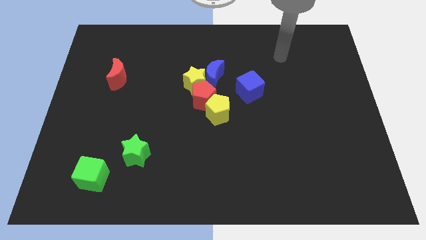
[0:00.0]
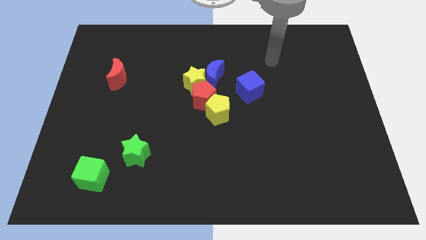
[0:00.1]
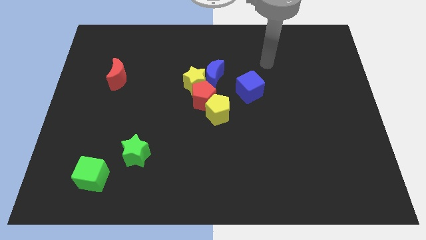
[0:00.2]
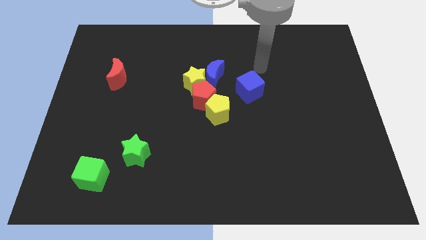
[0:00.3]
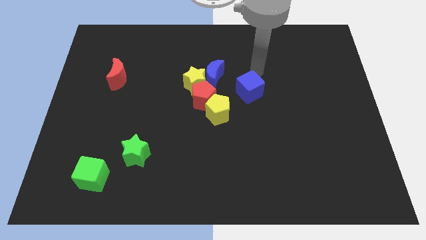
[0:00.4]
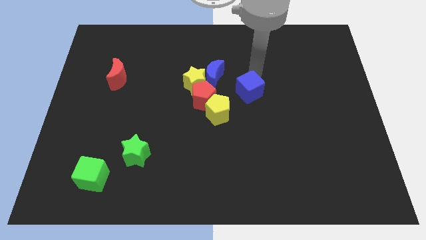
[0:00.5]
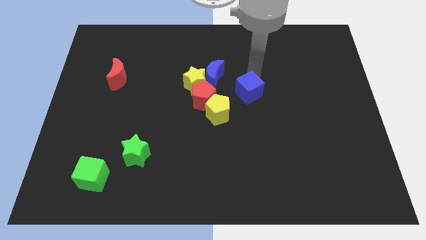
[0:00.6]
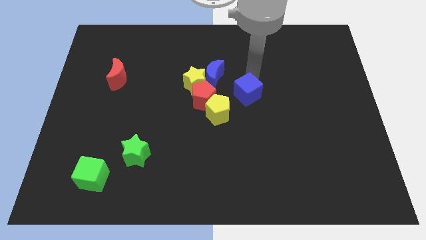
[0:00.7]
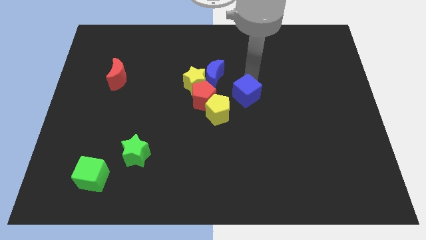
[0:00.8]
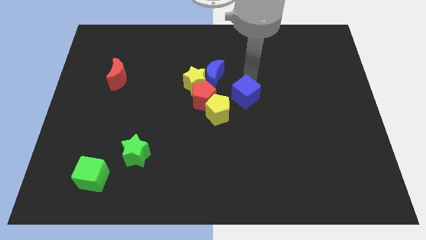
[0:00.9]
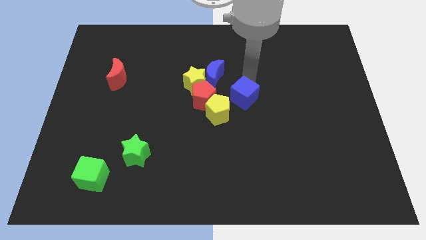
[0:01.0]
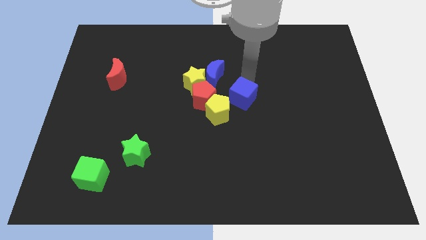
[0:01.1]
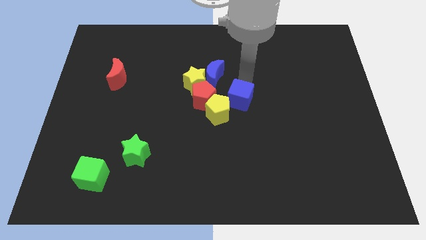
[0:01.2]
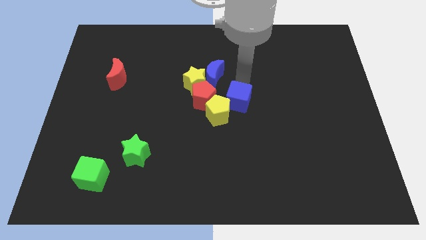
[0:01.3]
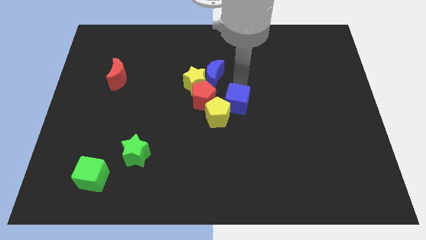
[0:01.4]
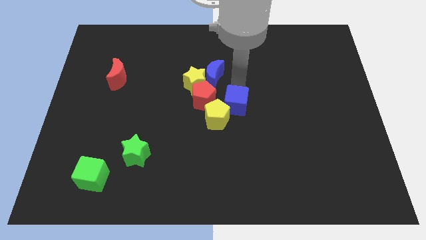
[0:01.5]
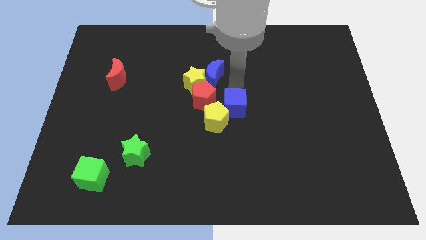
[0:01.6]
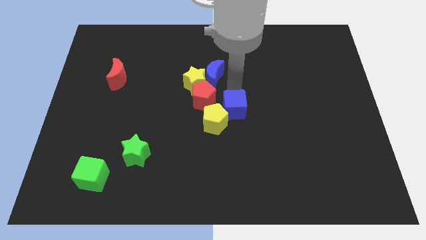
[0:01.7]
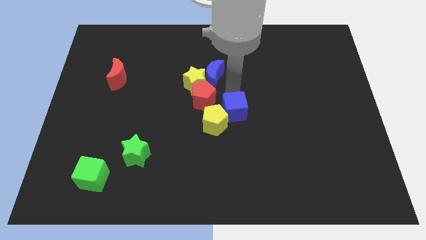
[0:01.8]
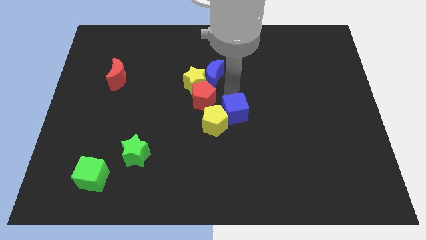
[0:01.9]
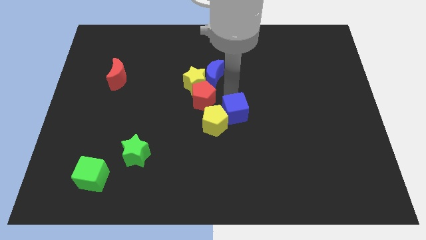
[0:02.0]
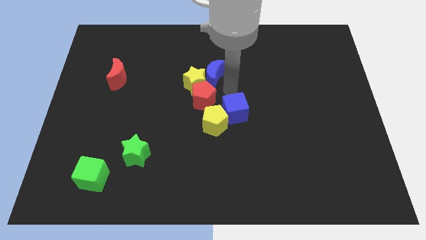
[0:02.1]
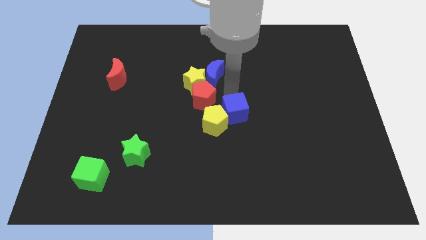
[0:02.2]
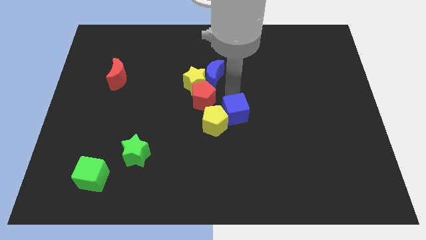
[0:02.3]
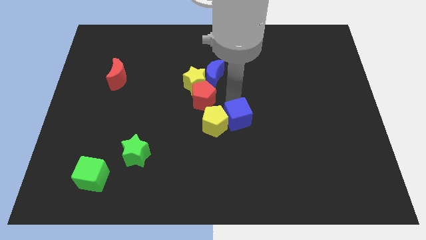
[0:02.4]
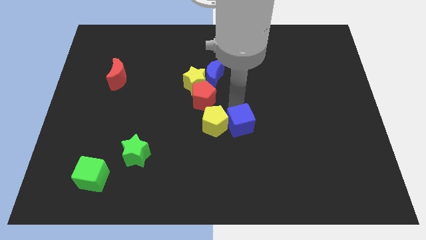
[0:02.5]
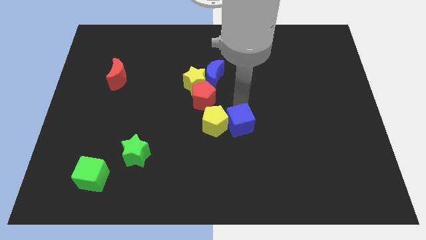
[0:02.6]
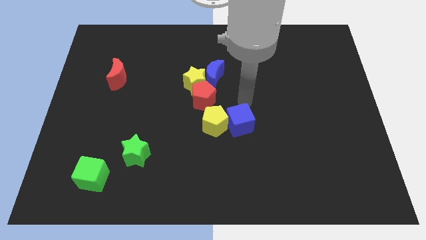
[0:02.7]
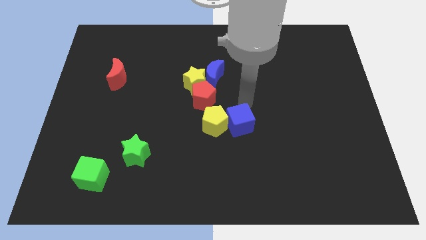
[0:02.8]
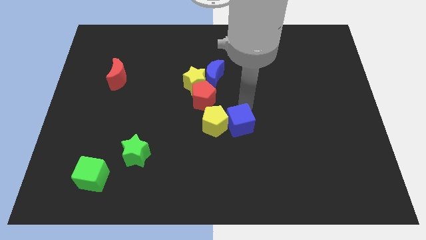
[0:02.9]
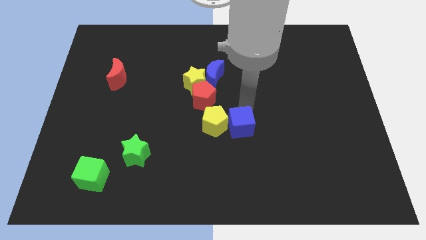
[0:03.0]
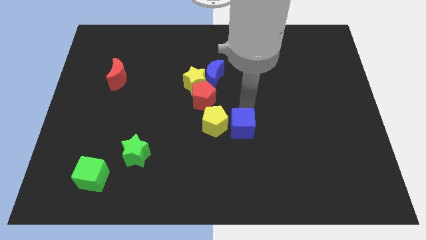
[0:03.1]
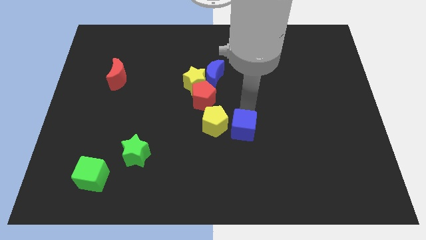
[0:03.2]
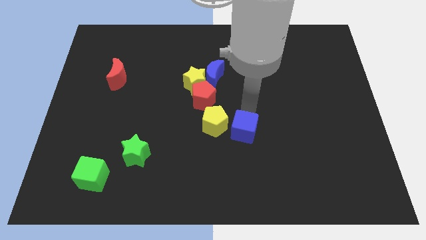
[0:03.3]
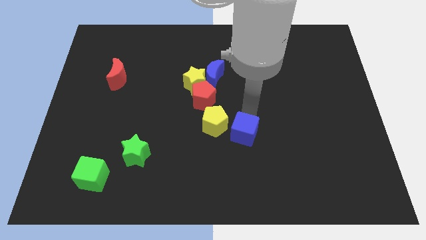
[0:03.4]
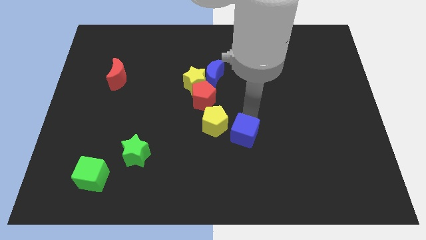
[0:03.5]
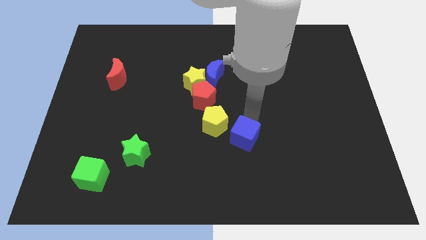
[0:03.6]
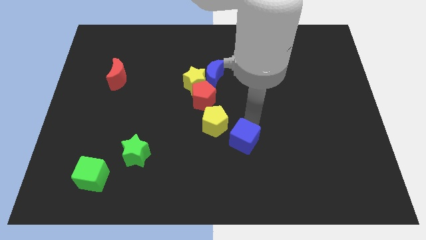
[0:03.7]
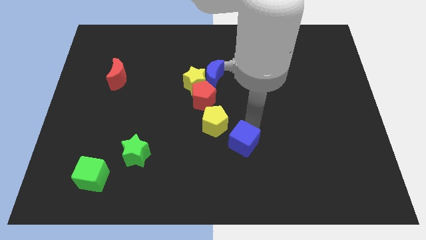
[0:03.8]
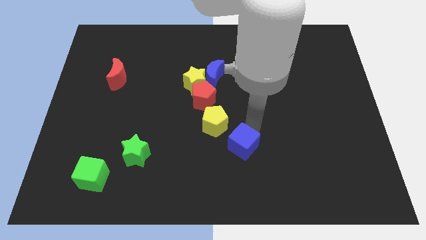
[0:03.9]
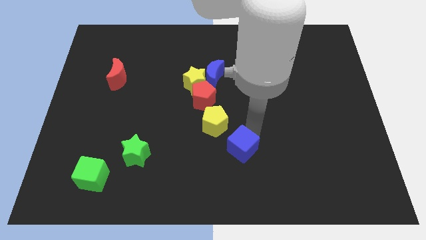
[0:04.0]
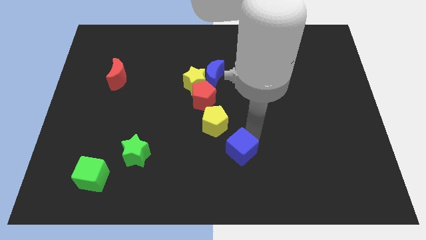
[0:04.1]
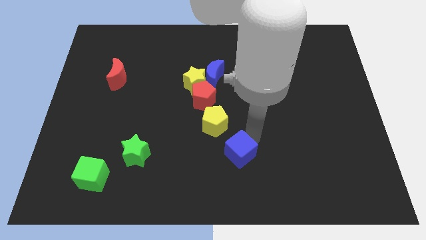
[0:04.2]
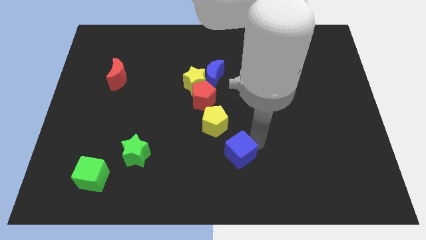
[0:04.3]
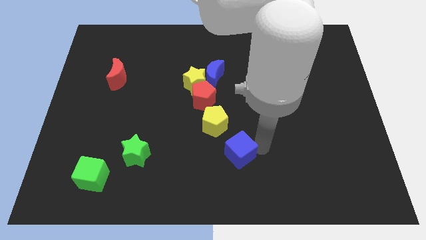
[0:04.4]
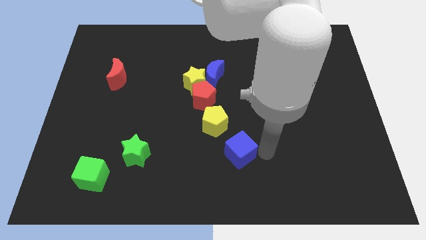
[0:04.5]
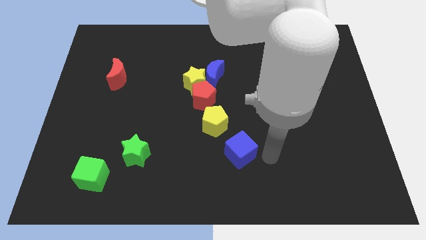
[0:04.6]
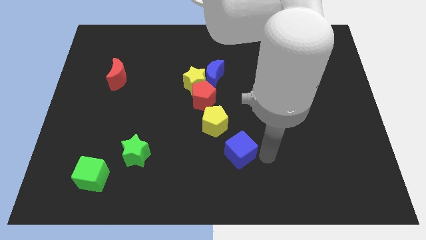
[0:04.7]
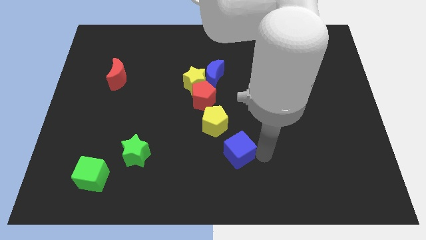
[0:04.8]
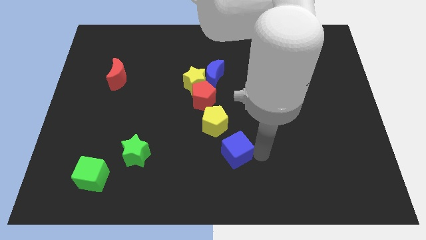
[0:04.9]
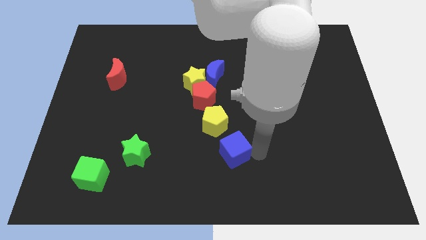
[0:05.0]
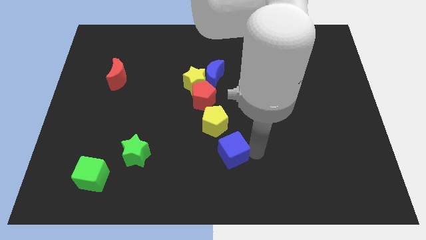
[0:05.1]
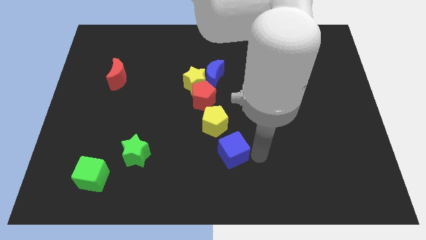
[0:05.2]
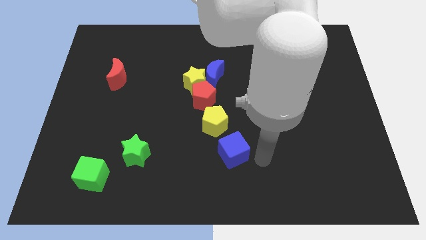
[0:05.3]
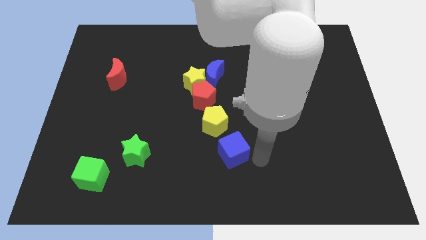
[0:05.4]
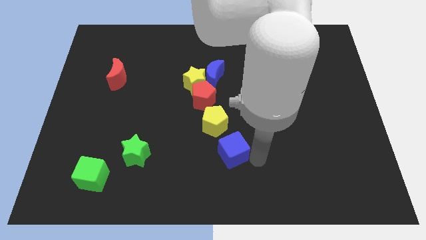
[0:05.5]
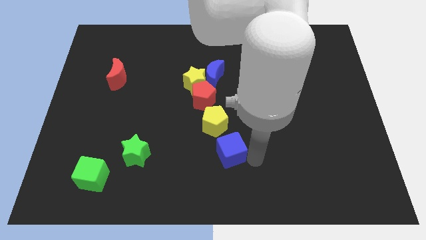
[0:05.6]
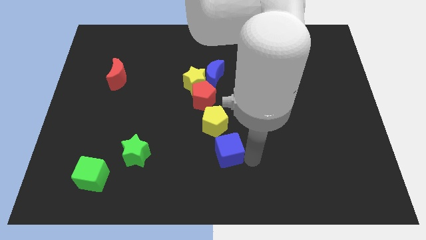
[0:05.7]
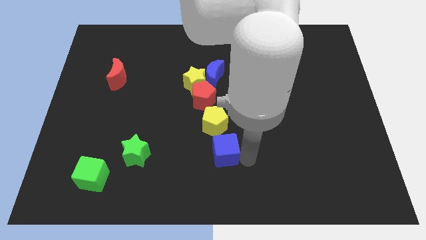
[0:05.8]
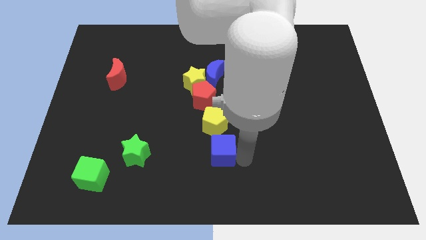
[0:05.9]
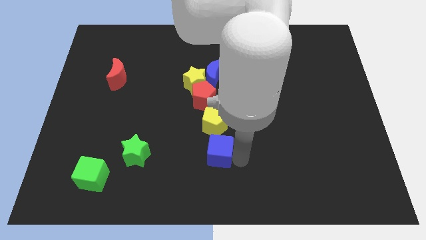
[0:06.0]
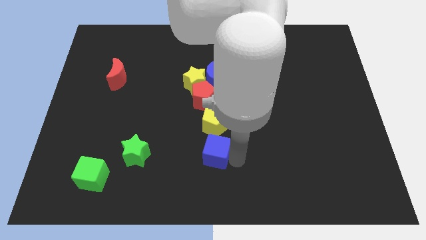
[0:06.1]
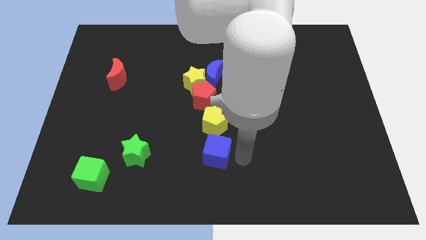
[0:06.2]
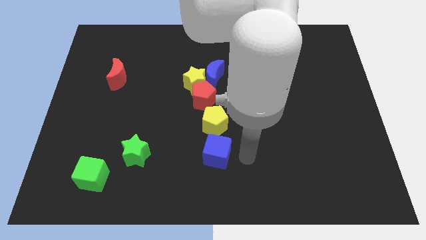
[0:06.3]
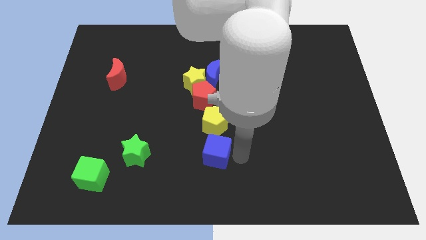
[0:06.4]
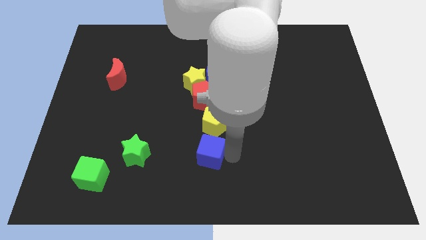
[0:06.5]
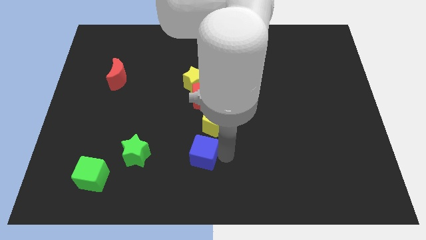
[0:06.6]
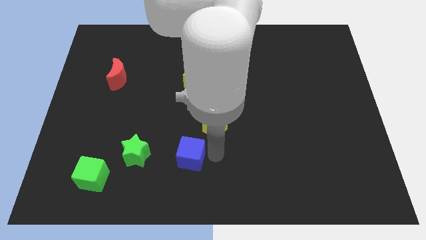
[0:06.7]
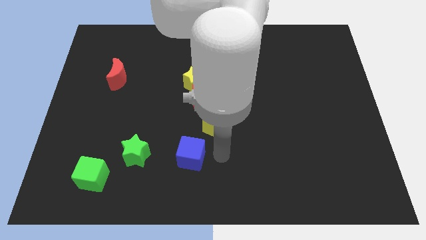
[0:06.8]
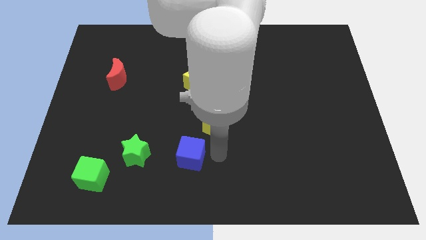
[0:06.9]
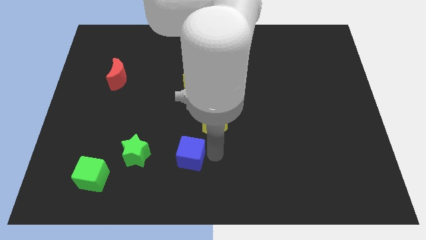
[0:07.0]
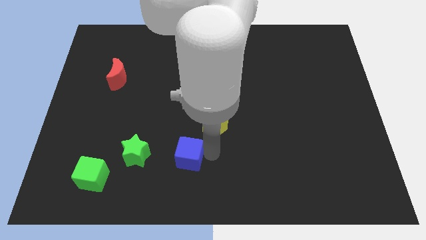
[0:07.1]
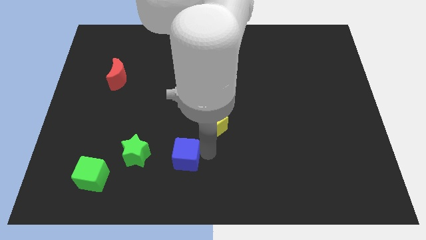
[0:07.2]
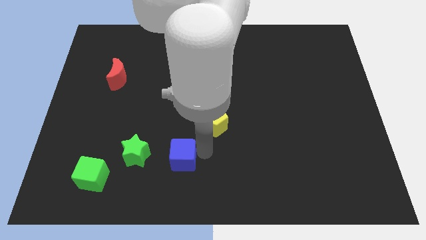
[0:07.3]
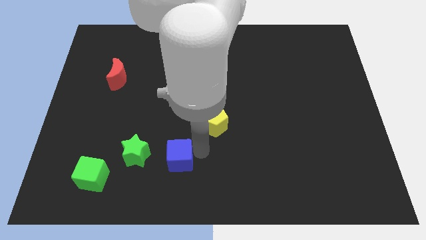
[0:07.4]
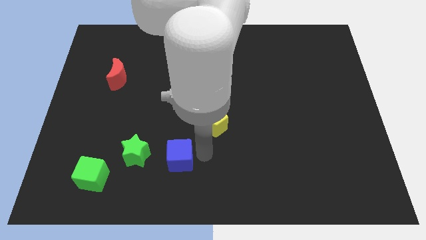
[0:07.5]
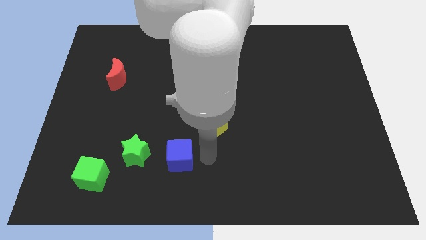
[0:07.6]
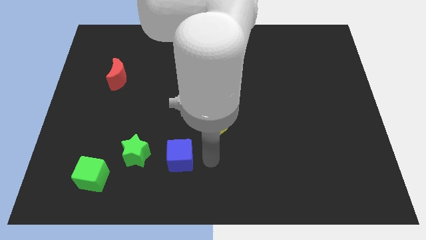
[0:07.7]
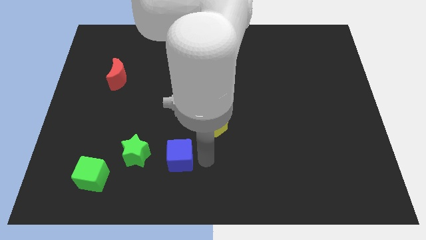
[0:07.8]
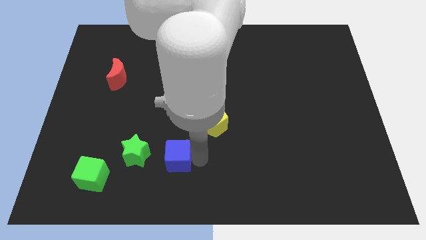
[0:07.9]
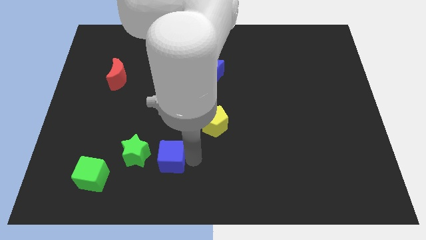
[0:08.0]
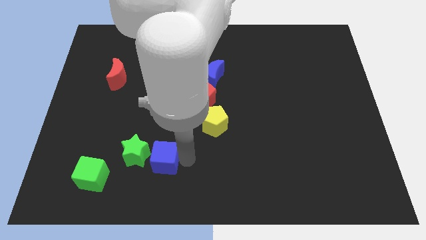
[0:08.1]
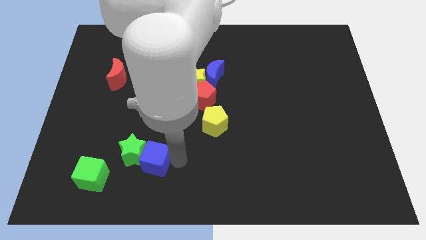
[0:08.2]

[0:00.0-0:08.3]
put the blue cube to the green star
